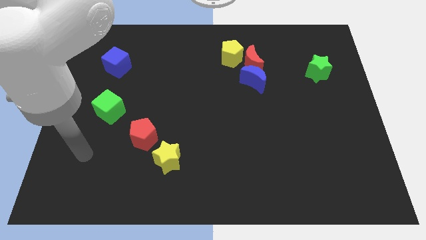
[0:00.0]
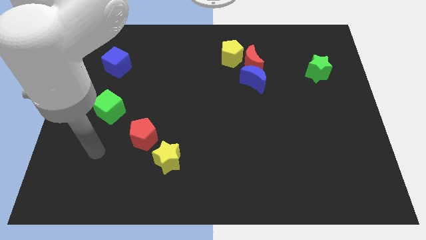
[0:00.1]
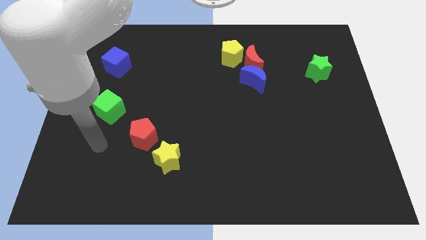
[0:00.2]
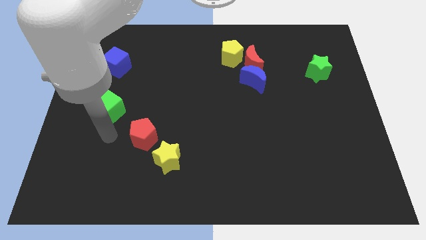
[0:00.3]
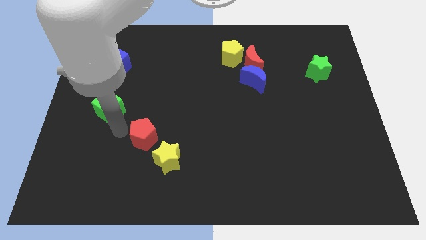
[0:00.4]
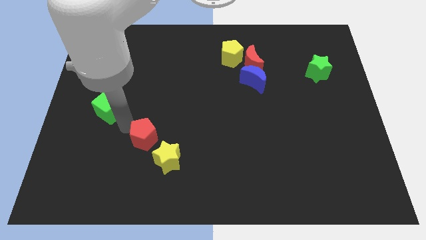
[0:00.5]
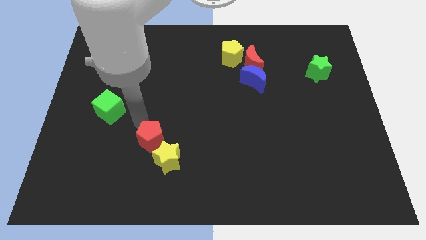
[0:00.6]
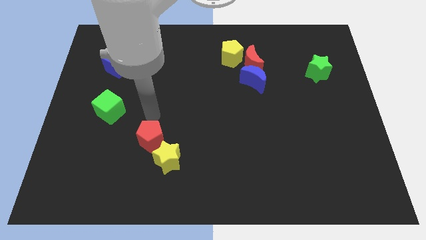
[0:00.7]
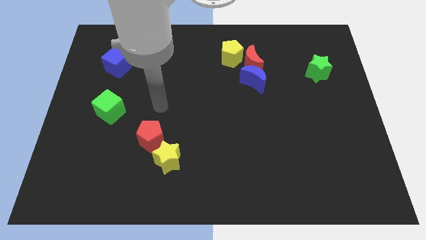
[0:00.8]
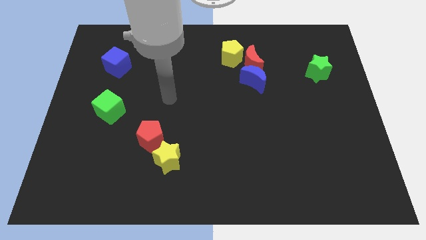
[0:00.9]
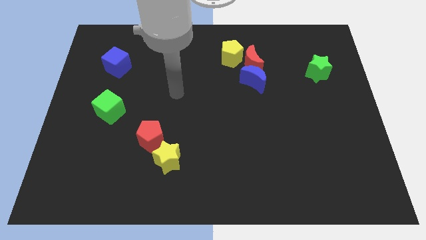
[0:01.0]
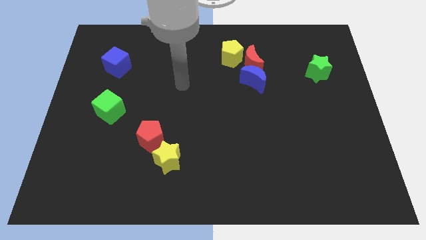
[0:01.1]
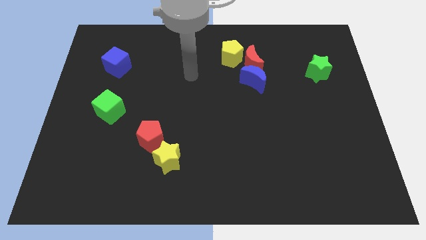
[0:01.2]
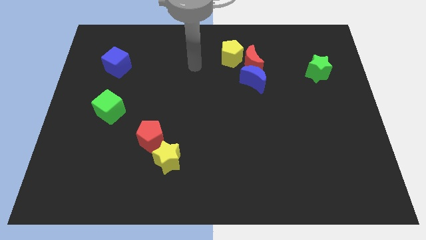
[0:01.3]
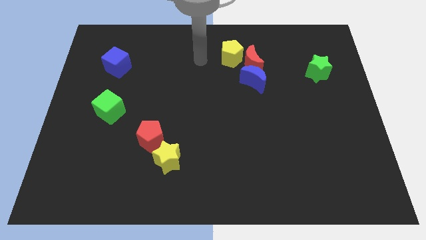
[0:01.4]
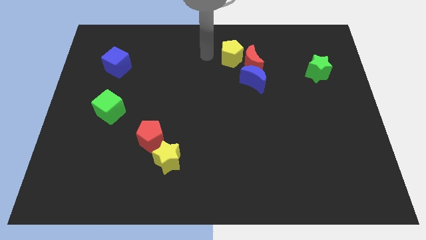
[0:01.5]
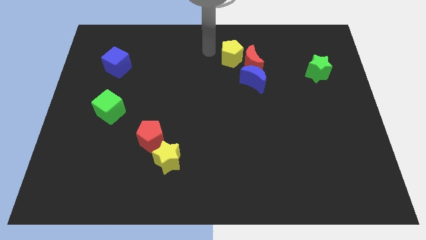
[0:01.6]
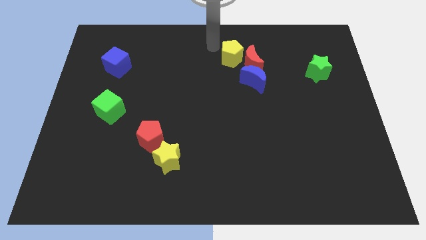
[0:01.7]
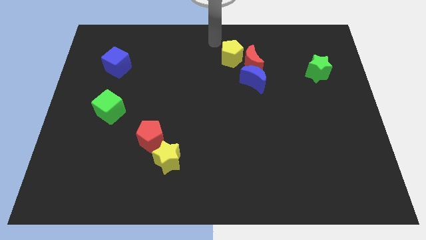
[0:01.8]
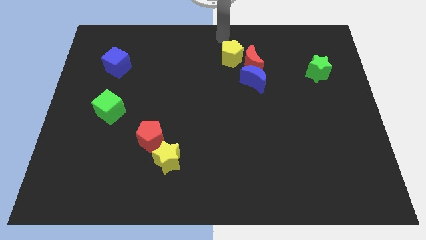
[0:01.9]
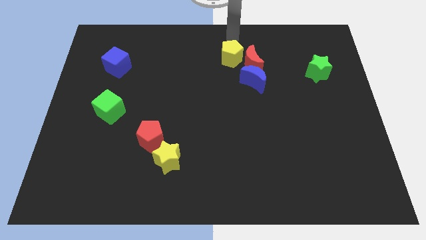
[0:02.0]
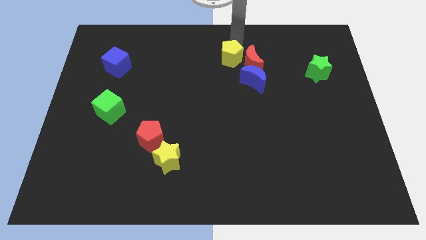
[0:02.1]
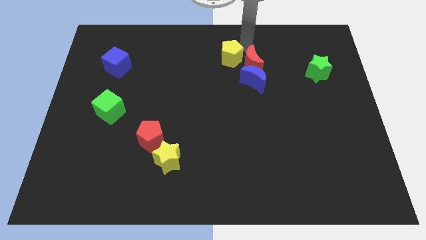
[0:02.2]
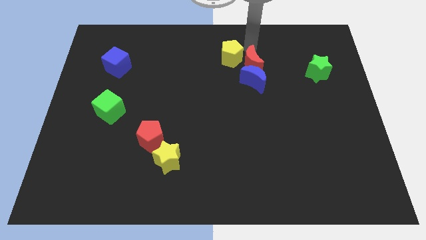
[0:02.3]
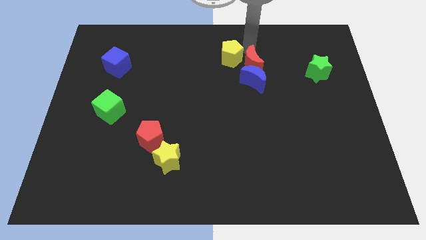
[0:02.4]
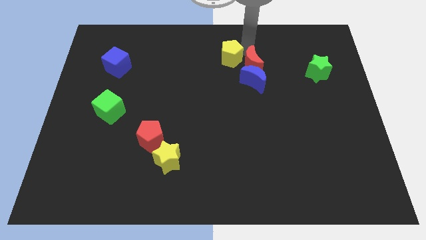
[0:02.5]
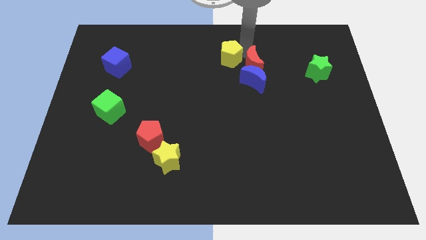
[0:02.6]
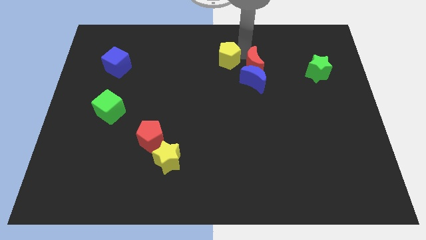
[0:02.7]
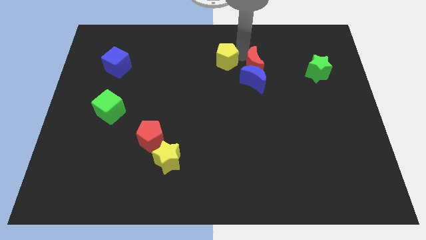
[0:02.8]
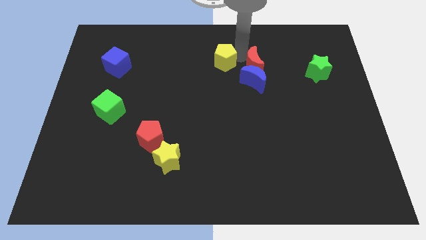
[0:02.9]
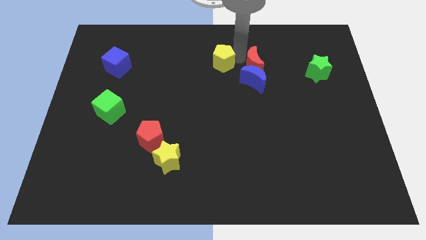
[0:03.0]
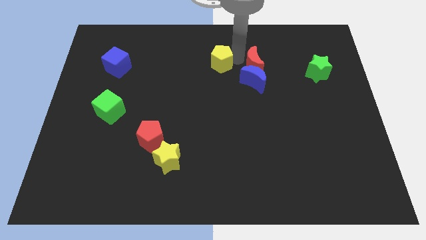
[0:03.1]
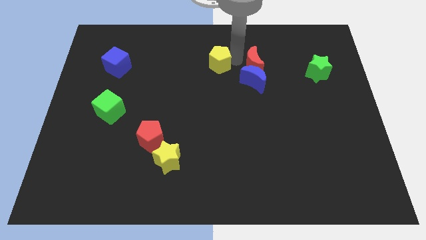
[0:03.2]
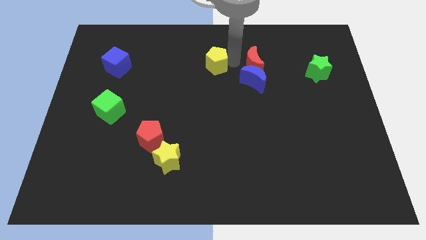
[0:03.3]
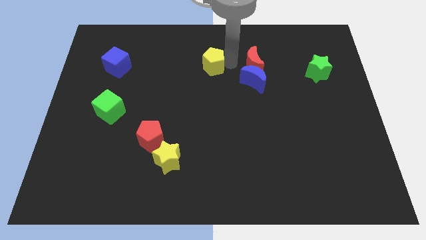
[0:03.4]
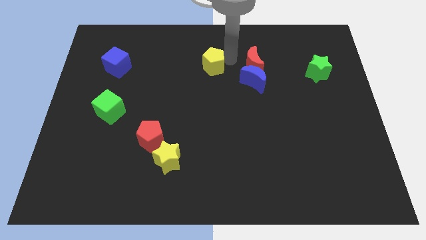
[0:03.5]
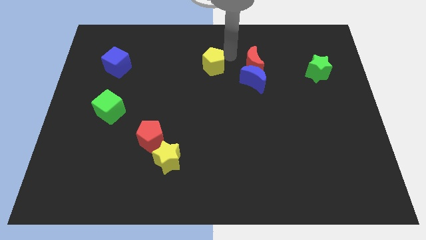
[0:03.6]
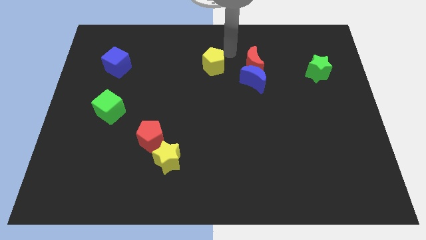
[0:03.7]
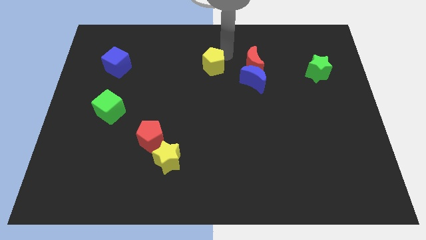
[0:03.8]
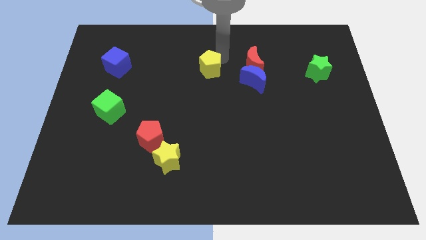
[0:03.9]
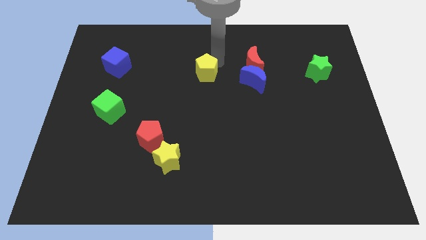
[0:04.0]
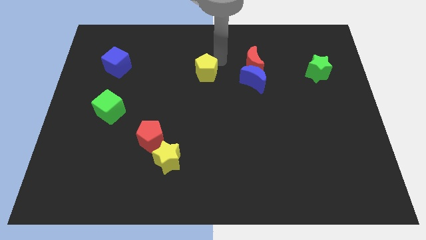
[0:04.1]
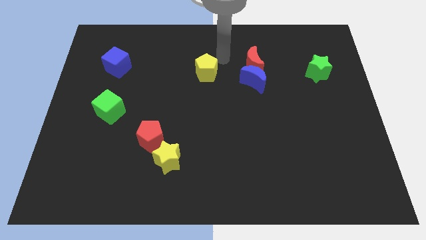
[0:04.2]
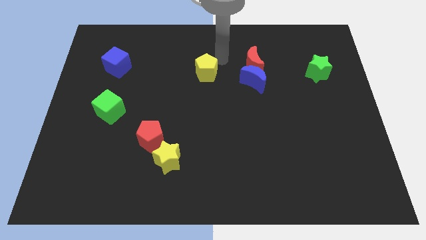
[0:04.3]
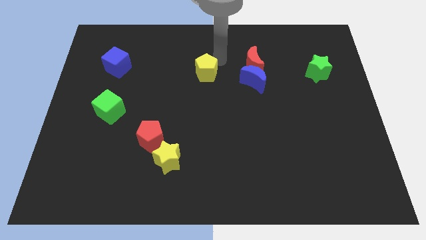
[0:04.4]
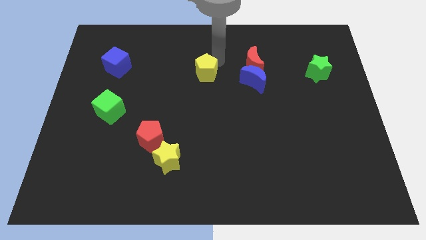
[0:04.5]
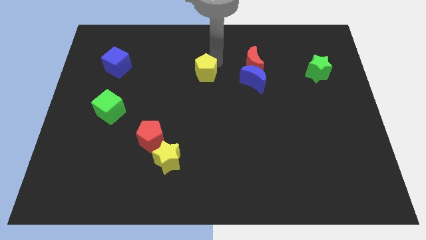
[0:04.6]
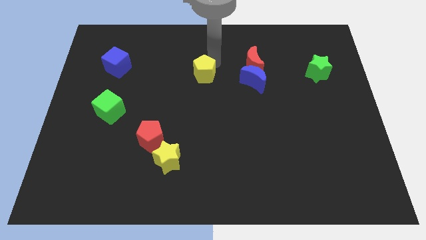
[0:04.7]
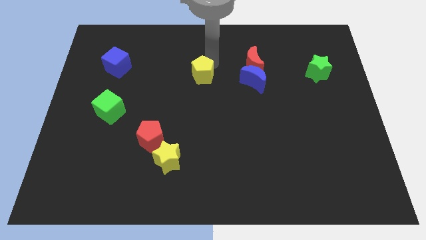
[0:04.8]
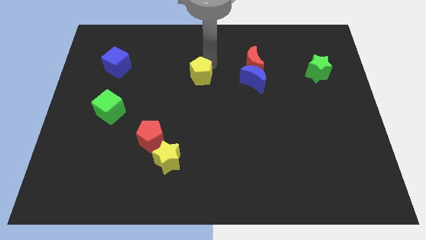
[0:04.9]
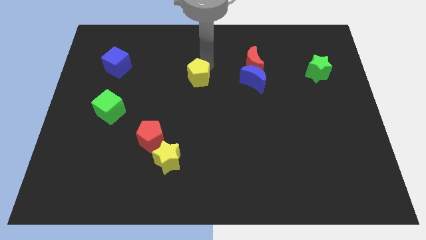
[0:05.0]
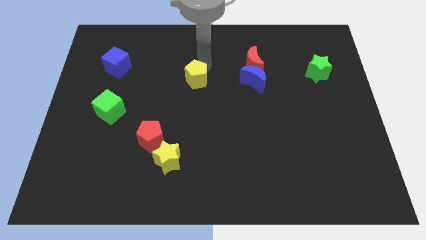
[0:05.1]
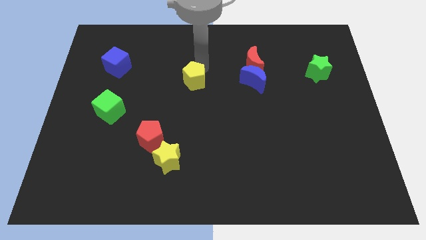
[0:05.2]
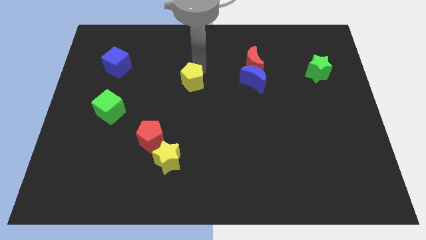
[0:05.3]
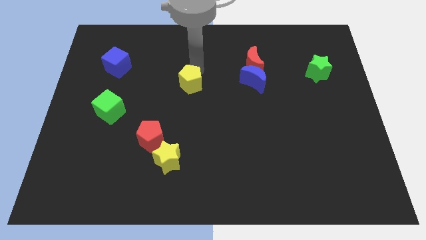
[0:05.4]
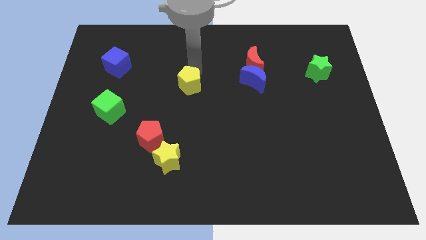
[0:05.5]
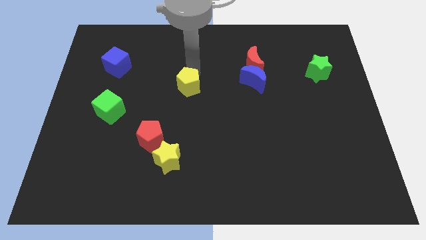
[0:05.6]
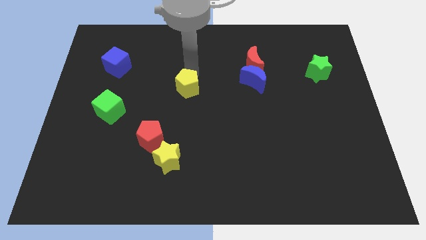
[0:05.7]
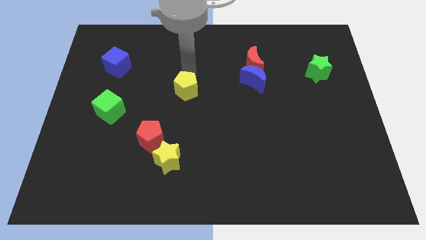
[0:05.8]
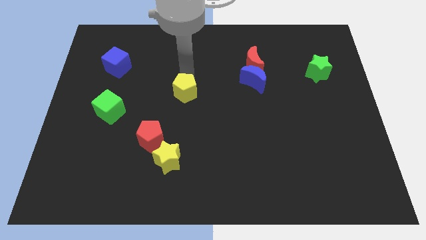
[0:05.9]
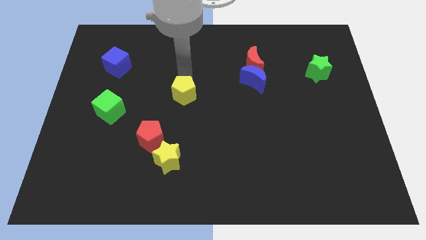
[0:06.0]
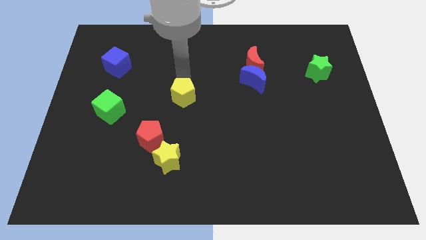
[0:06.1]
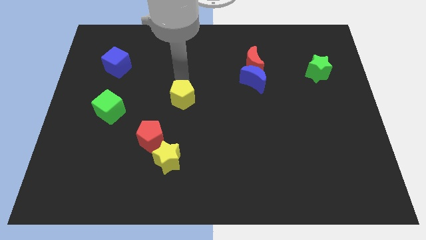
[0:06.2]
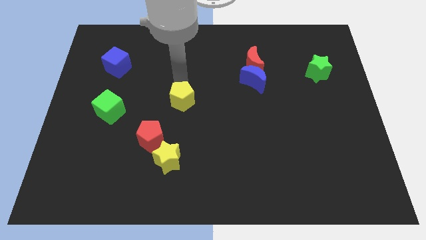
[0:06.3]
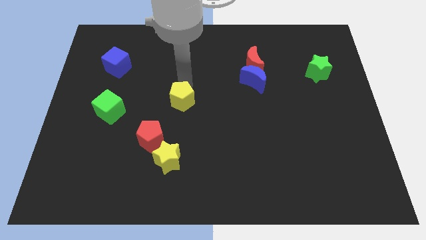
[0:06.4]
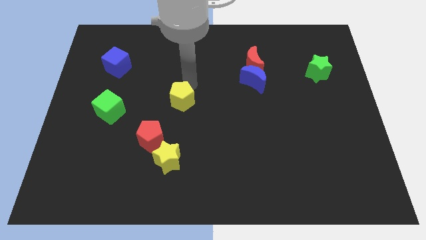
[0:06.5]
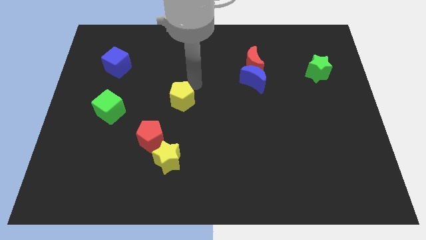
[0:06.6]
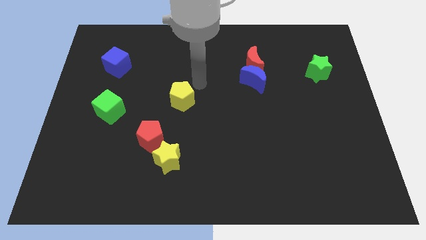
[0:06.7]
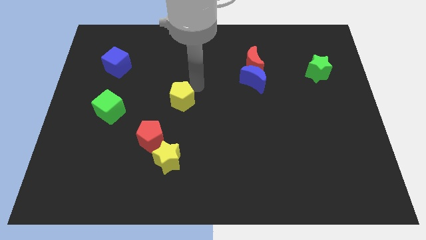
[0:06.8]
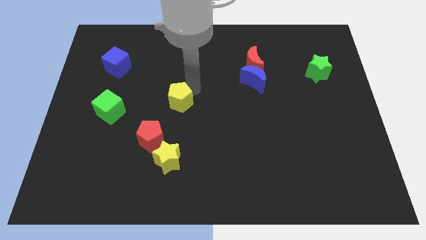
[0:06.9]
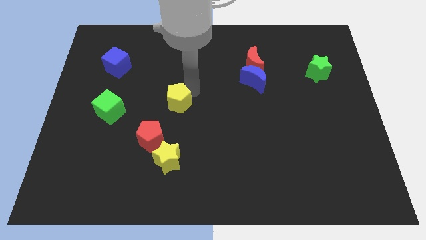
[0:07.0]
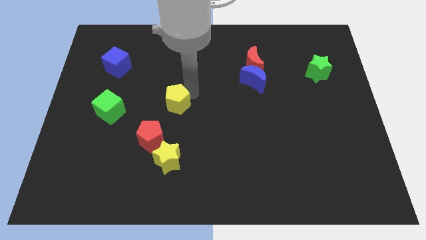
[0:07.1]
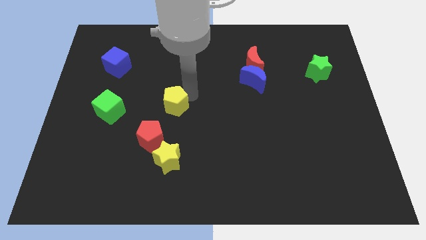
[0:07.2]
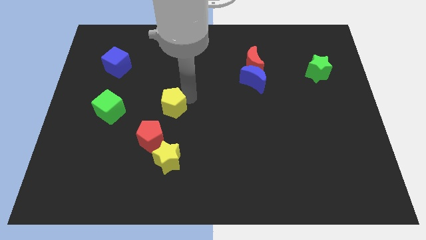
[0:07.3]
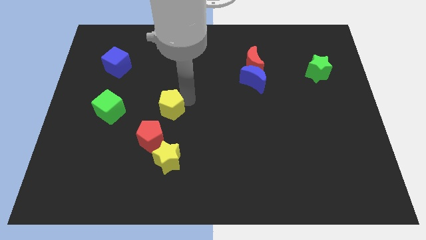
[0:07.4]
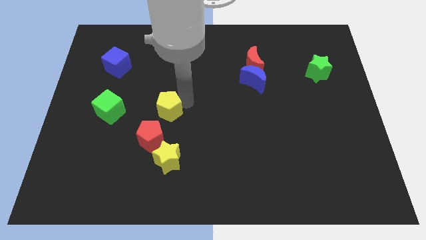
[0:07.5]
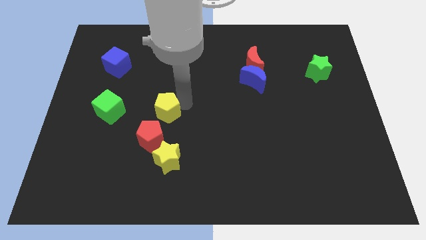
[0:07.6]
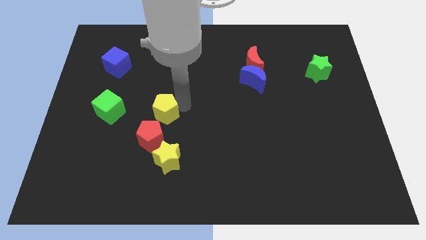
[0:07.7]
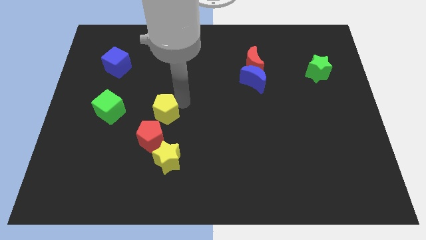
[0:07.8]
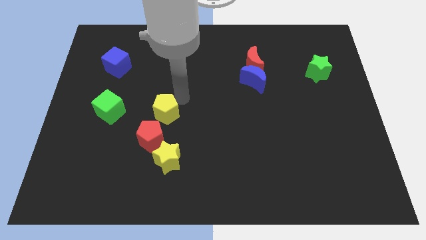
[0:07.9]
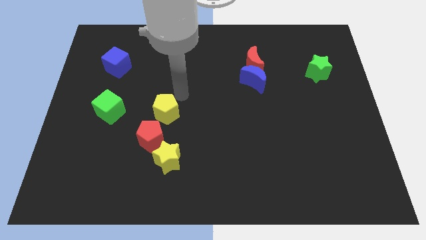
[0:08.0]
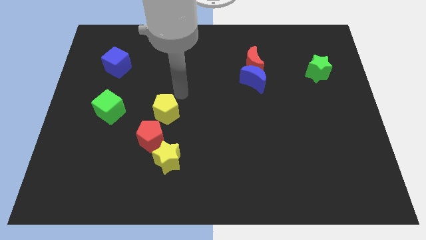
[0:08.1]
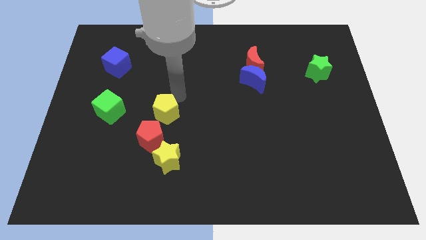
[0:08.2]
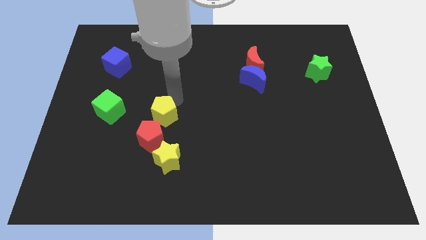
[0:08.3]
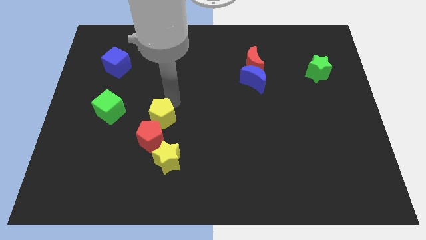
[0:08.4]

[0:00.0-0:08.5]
slide the yellow pentagon next to the red pentagon
